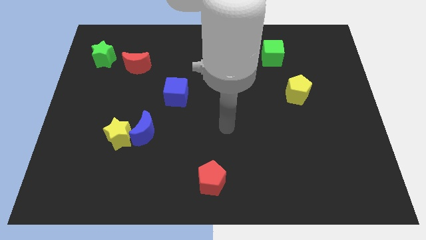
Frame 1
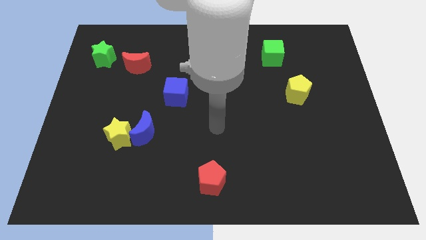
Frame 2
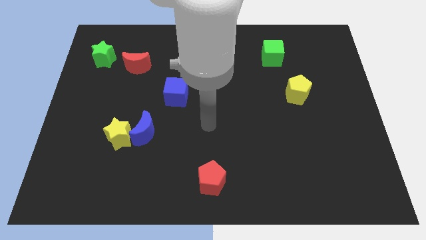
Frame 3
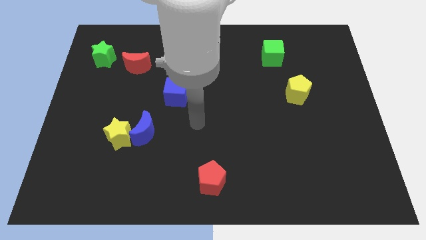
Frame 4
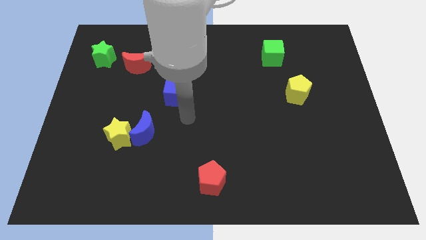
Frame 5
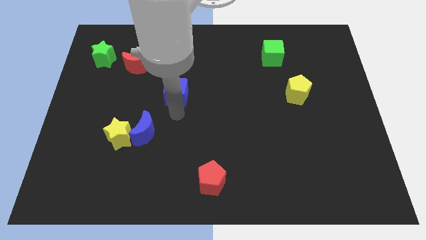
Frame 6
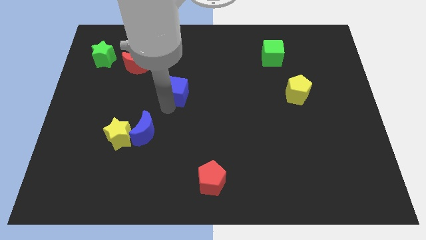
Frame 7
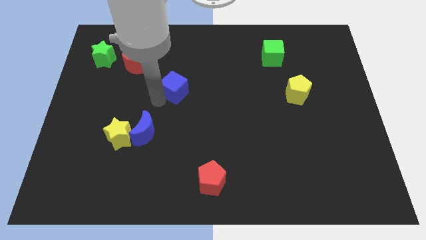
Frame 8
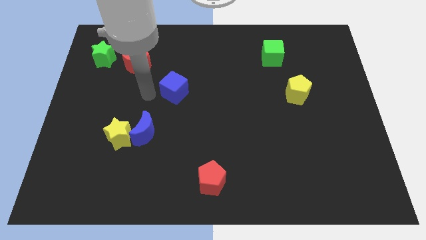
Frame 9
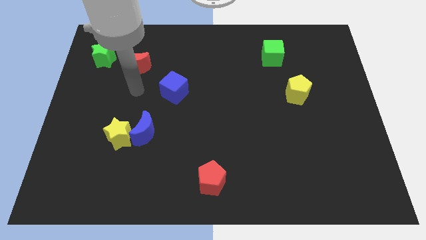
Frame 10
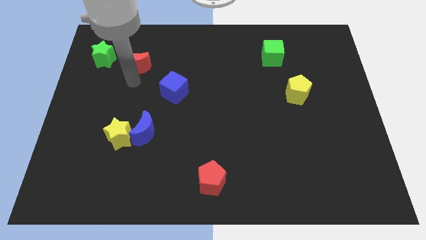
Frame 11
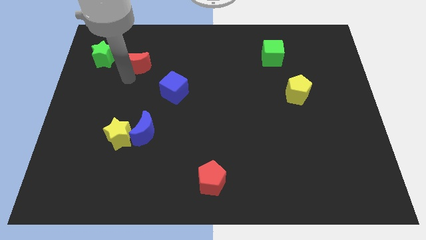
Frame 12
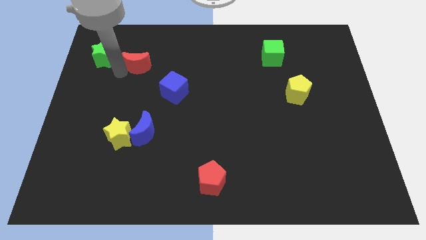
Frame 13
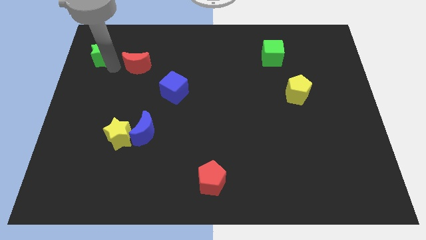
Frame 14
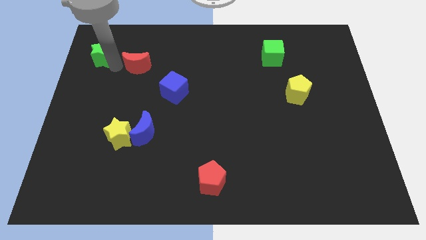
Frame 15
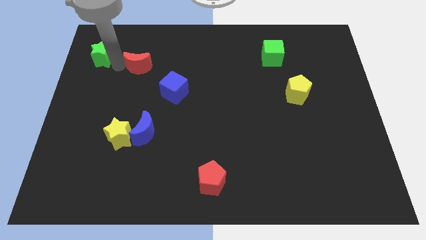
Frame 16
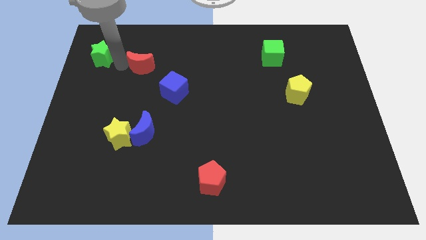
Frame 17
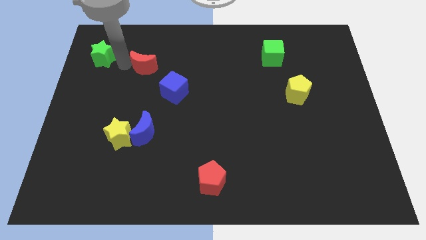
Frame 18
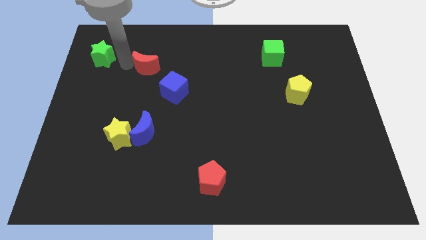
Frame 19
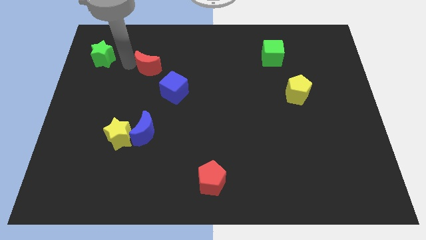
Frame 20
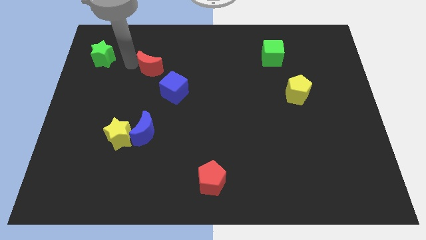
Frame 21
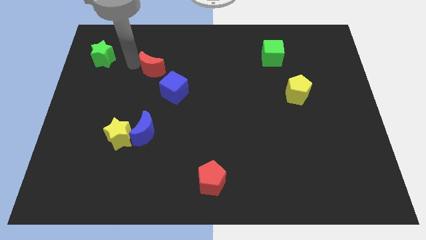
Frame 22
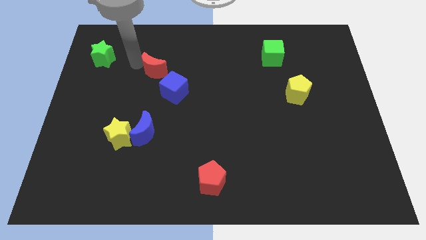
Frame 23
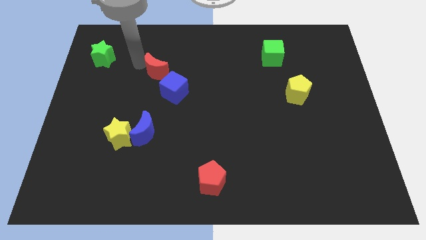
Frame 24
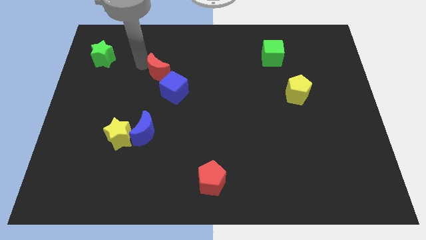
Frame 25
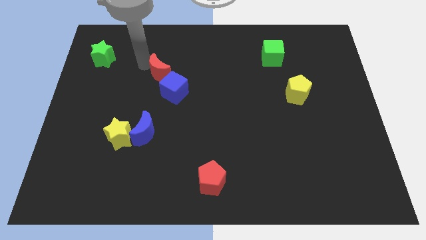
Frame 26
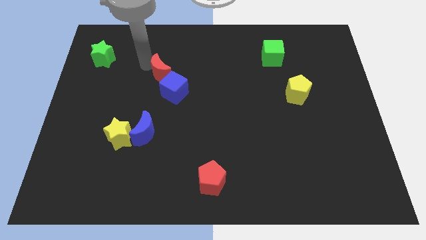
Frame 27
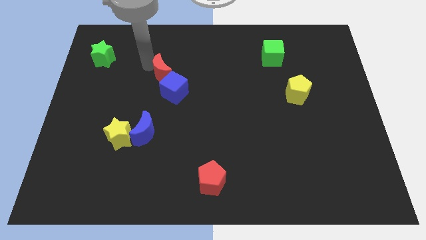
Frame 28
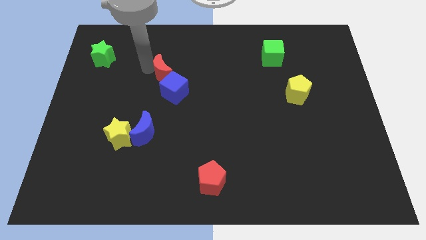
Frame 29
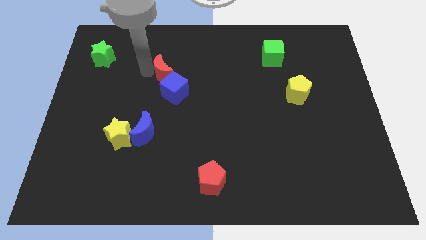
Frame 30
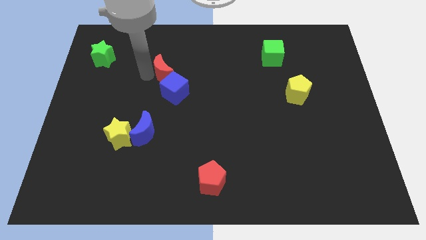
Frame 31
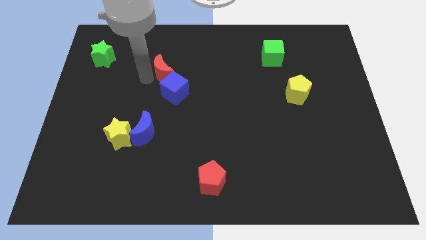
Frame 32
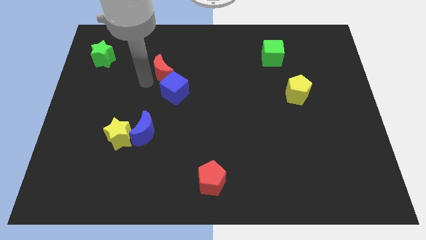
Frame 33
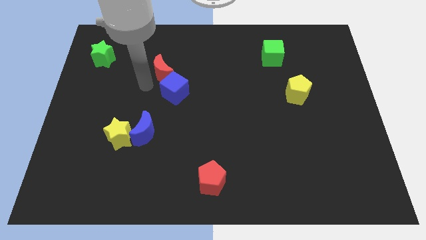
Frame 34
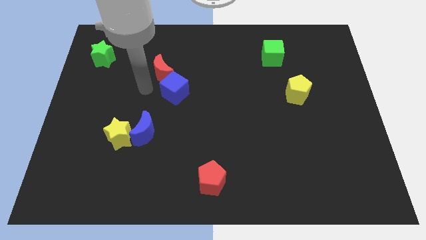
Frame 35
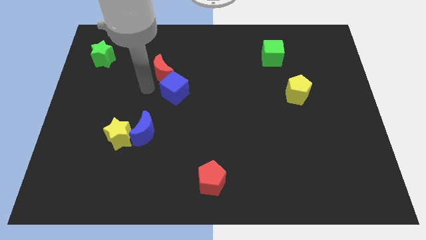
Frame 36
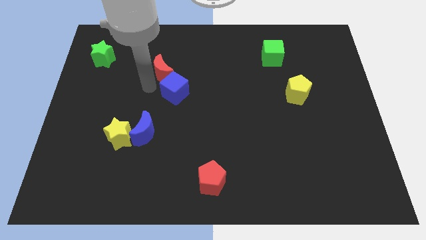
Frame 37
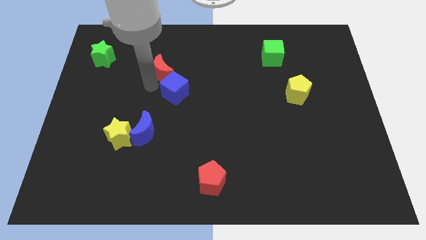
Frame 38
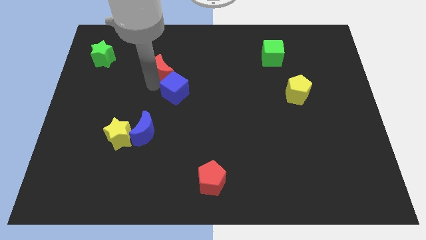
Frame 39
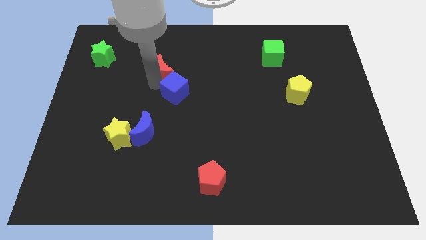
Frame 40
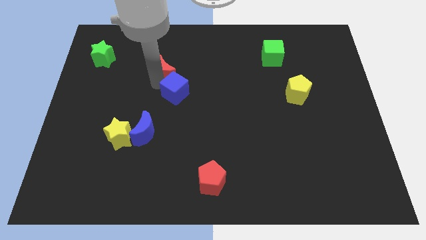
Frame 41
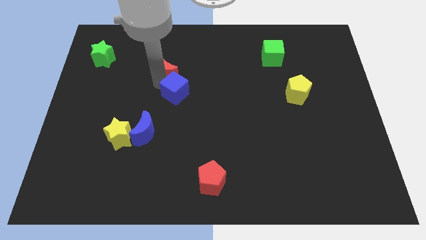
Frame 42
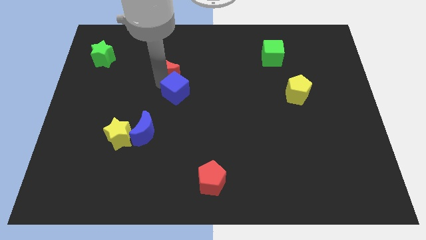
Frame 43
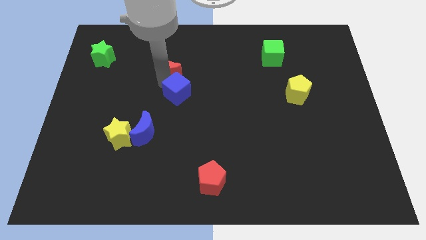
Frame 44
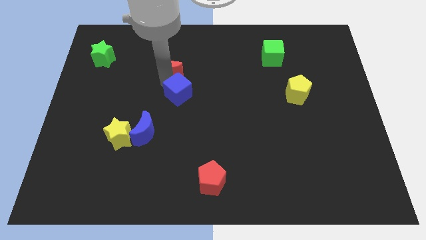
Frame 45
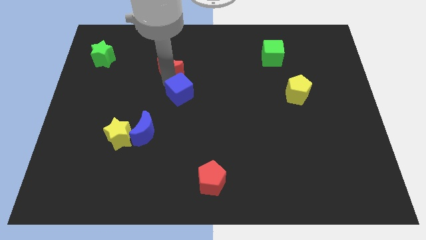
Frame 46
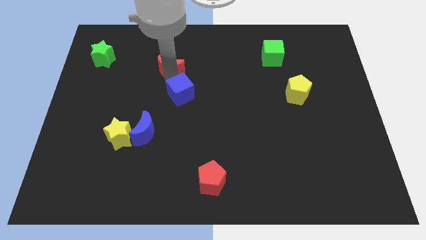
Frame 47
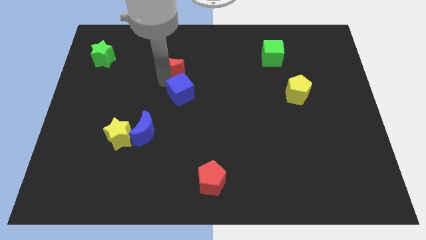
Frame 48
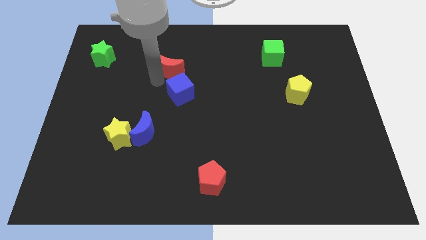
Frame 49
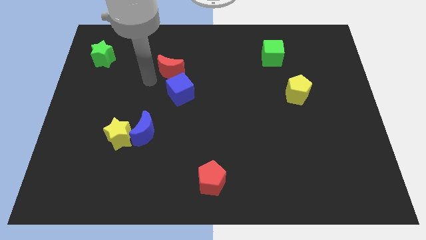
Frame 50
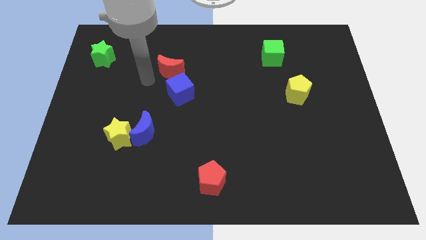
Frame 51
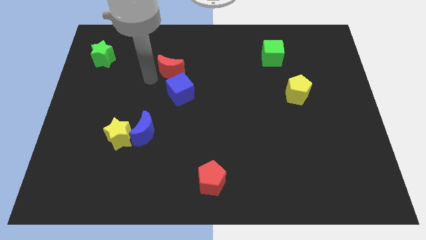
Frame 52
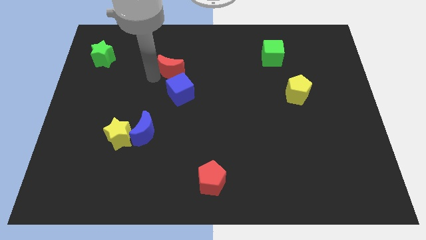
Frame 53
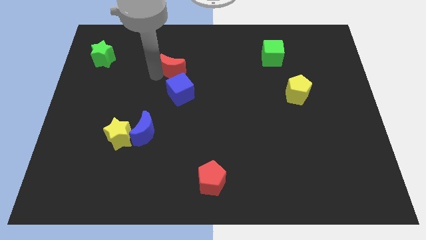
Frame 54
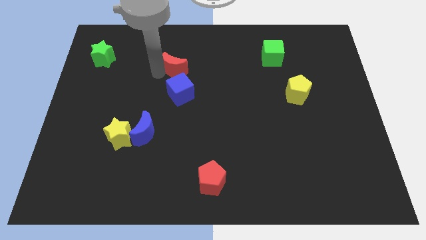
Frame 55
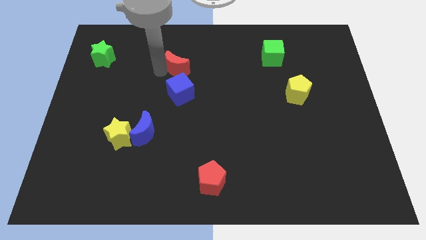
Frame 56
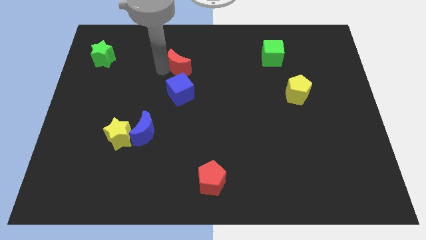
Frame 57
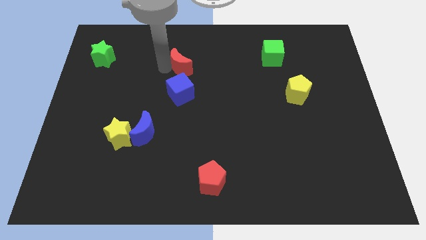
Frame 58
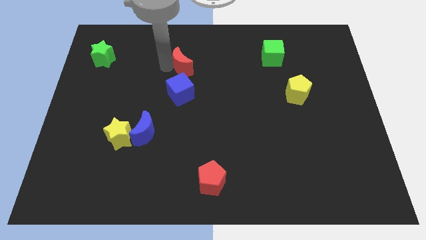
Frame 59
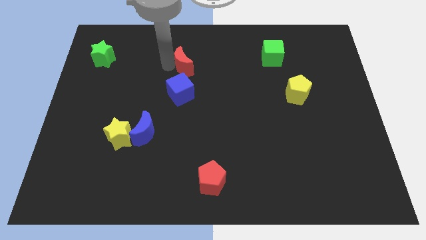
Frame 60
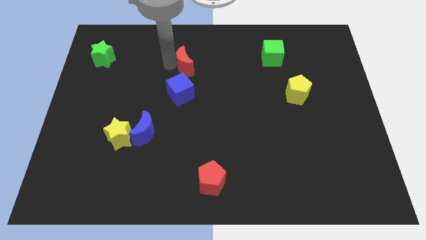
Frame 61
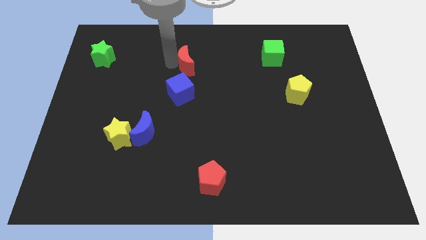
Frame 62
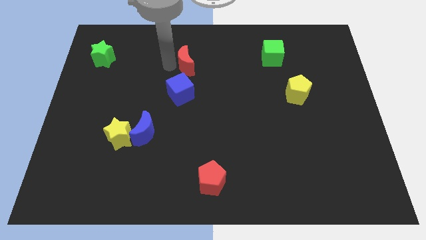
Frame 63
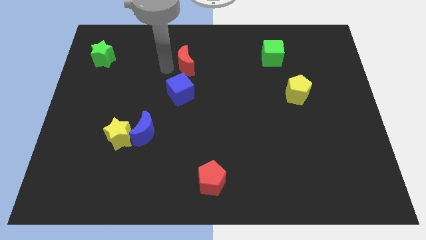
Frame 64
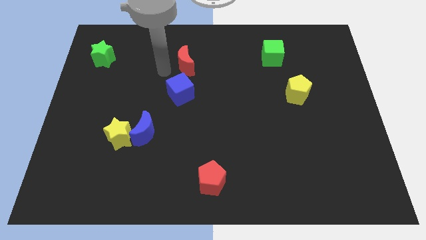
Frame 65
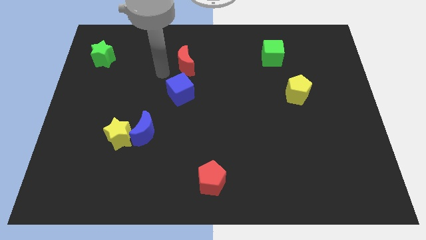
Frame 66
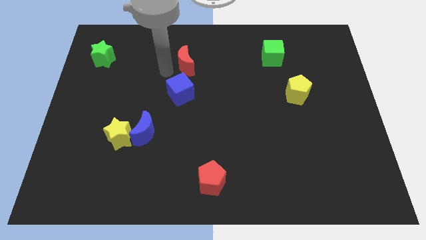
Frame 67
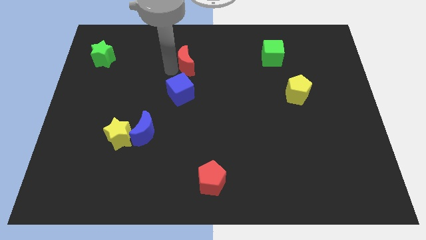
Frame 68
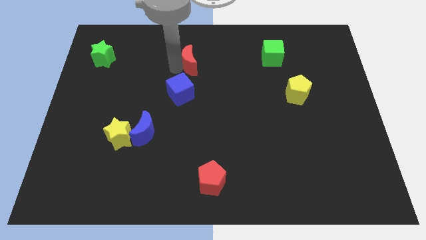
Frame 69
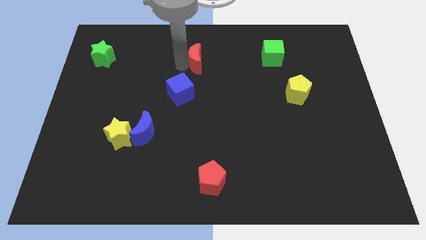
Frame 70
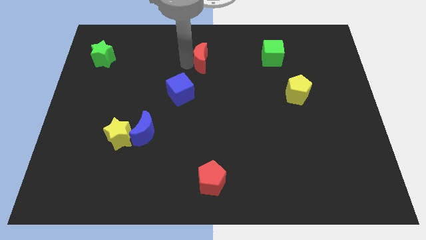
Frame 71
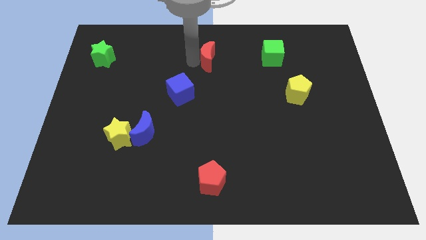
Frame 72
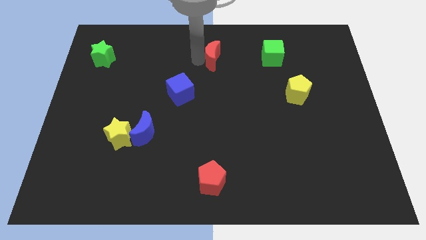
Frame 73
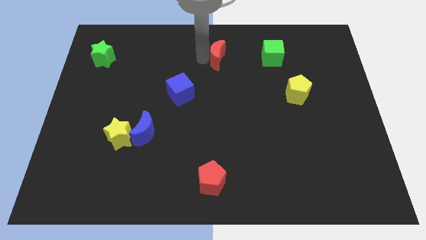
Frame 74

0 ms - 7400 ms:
push the red moon to the right

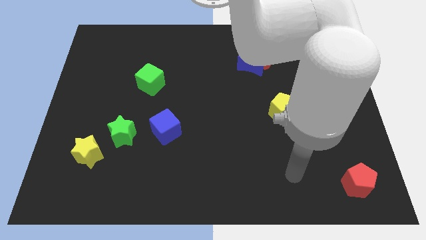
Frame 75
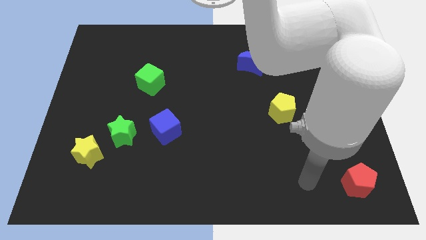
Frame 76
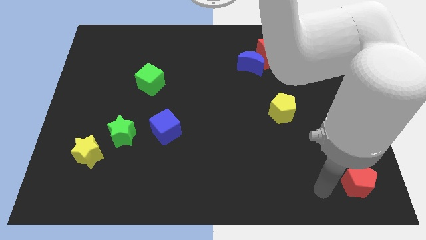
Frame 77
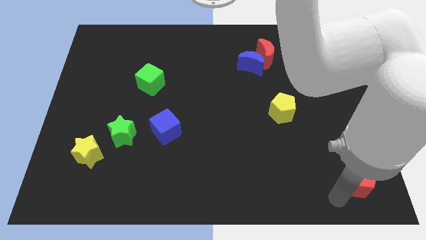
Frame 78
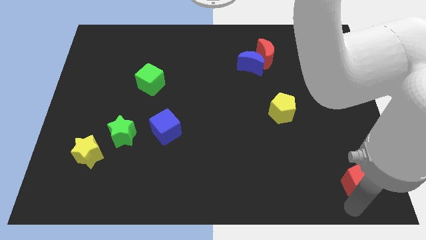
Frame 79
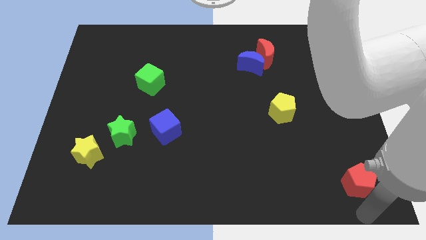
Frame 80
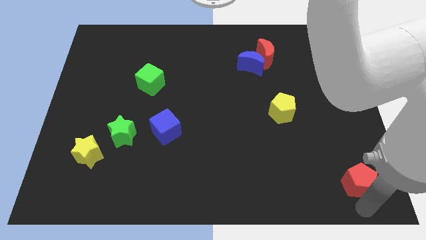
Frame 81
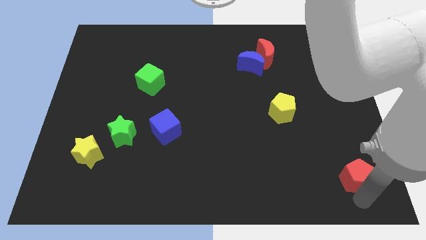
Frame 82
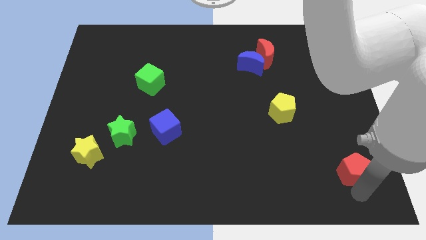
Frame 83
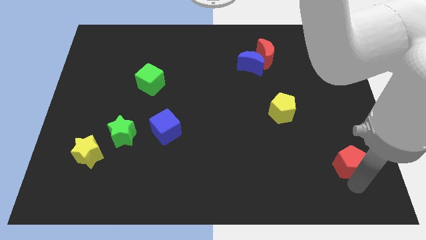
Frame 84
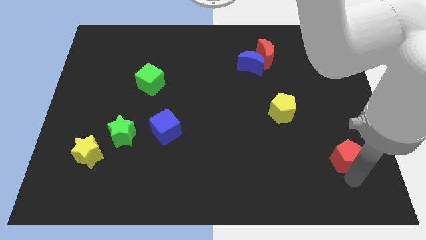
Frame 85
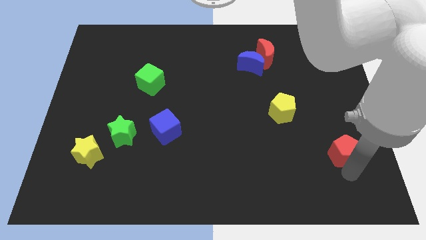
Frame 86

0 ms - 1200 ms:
move the red pentagon a little bit upwards

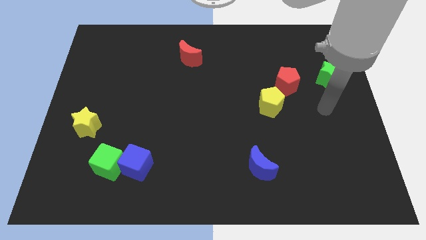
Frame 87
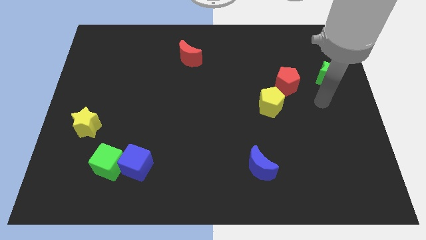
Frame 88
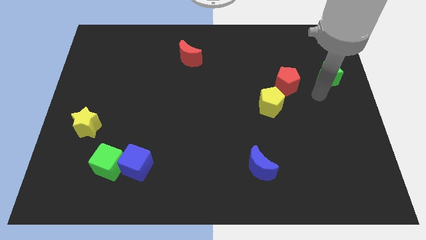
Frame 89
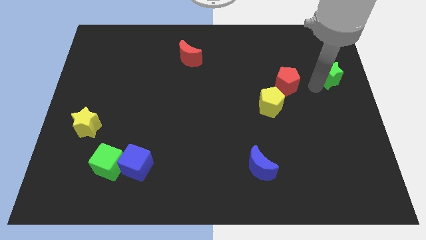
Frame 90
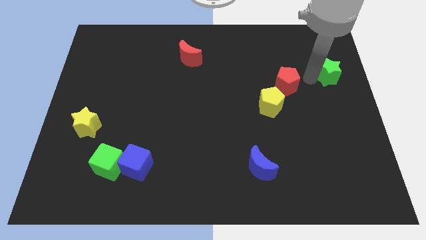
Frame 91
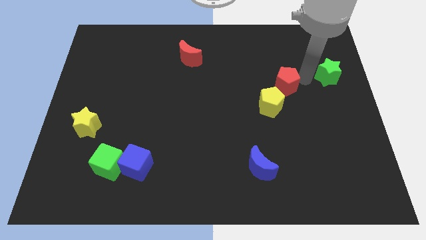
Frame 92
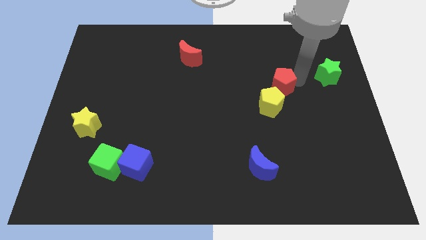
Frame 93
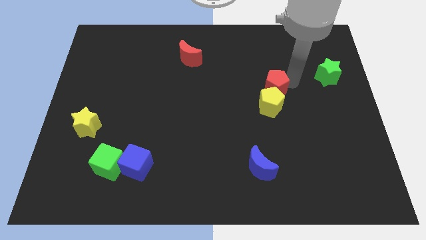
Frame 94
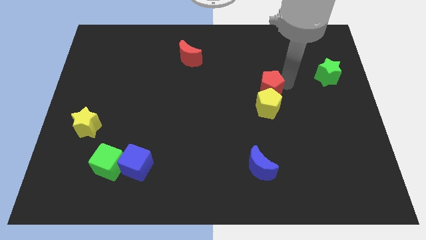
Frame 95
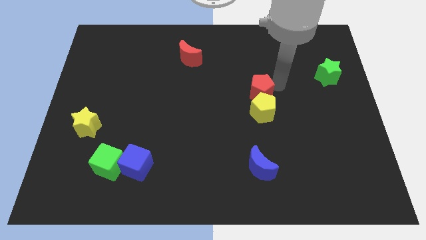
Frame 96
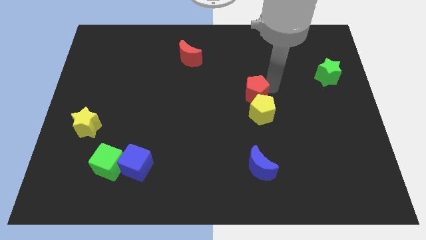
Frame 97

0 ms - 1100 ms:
slightly move the red pentagon diagonally downwards and to the left
